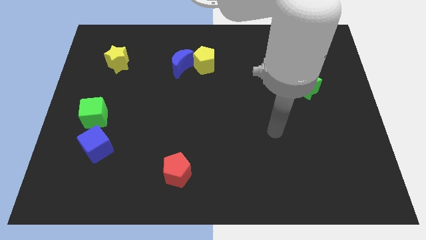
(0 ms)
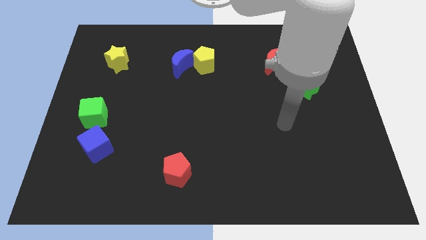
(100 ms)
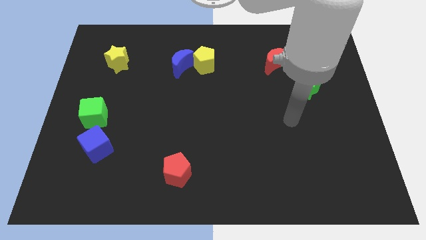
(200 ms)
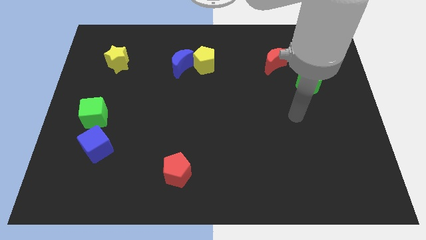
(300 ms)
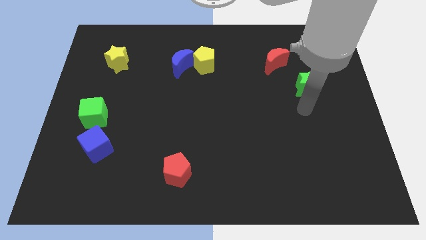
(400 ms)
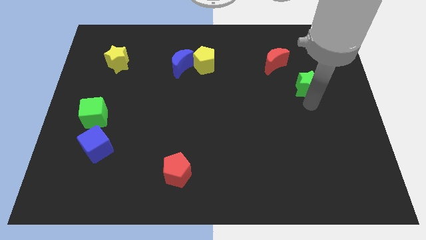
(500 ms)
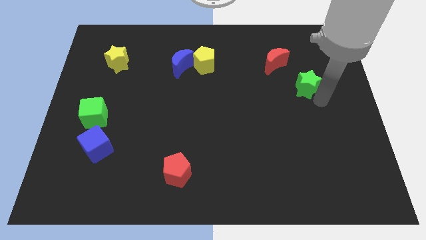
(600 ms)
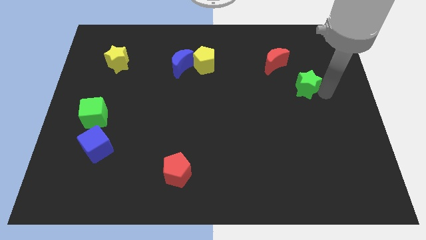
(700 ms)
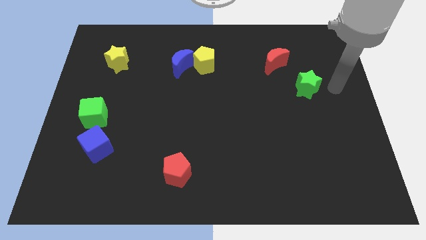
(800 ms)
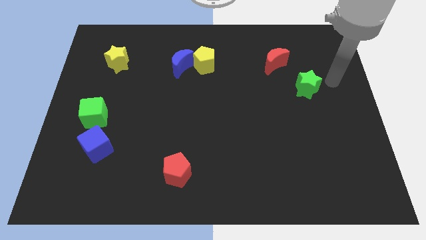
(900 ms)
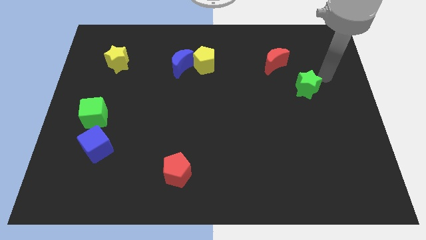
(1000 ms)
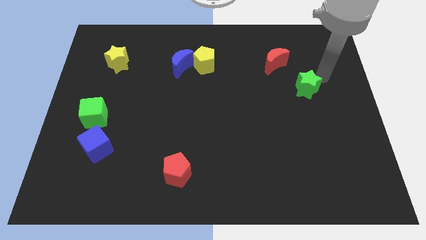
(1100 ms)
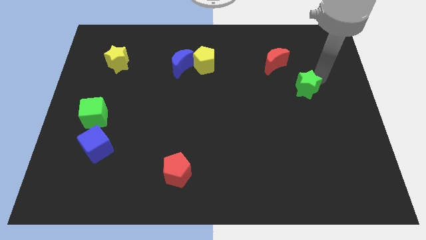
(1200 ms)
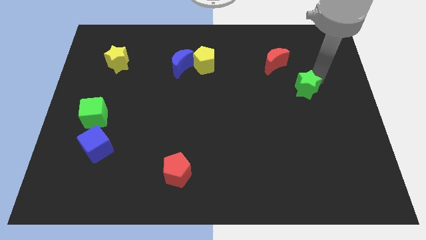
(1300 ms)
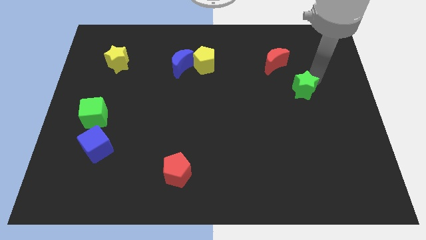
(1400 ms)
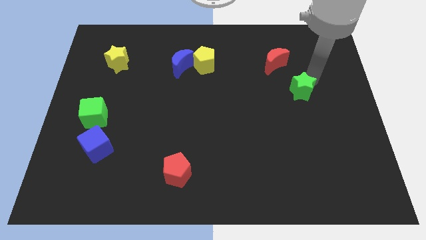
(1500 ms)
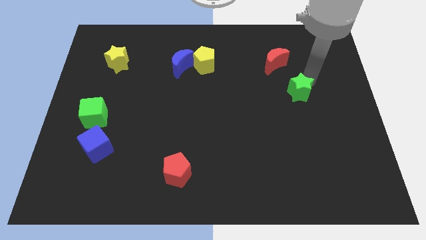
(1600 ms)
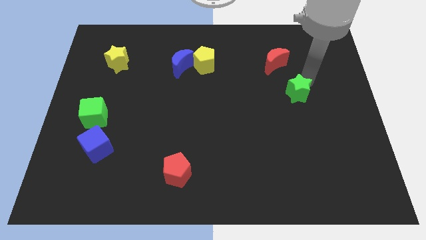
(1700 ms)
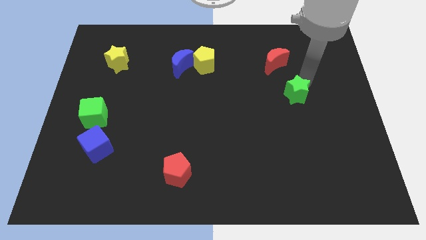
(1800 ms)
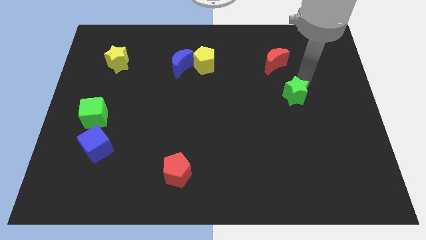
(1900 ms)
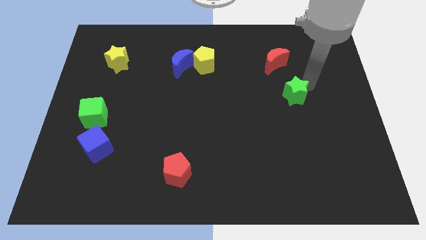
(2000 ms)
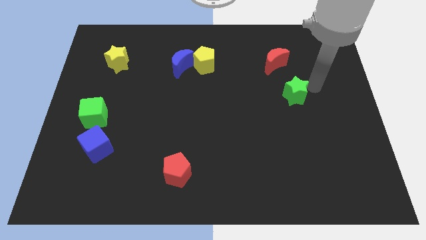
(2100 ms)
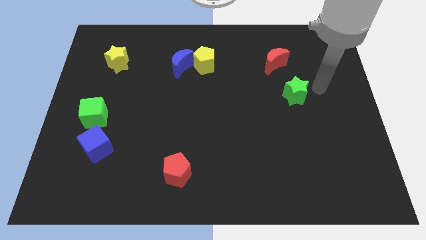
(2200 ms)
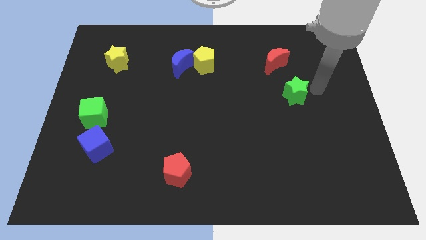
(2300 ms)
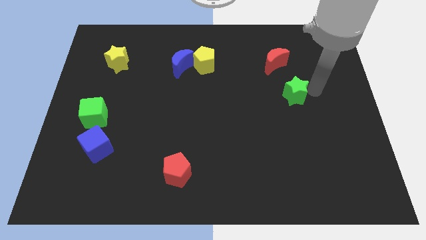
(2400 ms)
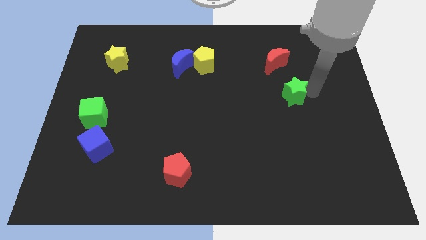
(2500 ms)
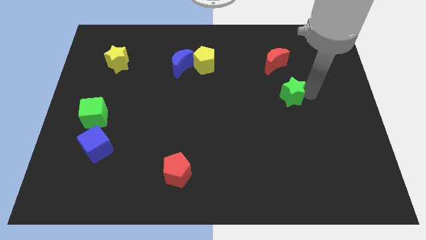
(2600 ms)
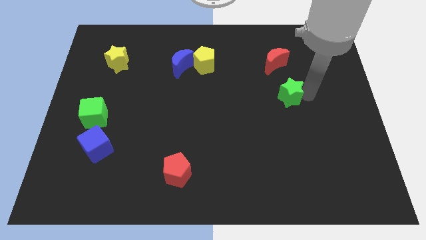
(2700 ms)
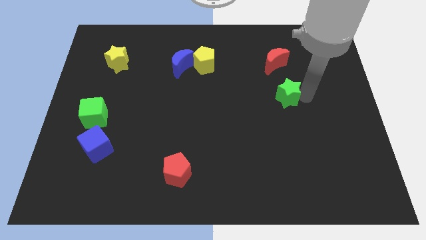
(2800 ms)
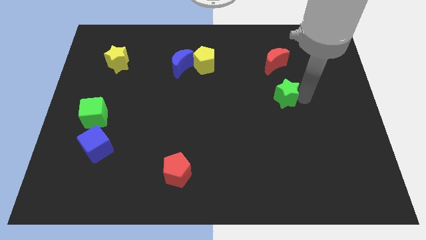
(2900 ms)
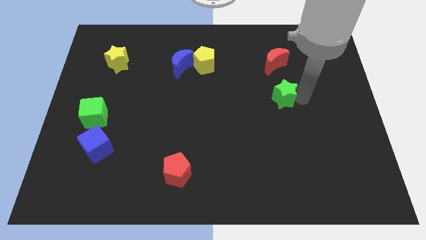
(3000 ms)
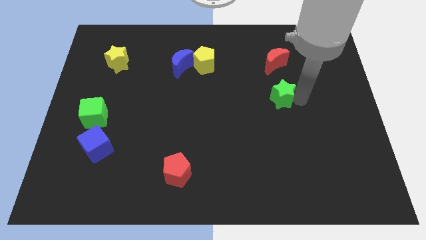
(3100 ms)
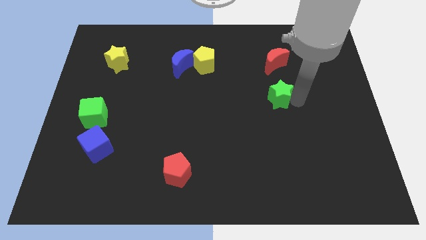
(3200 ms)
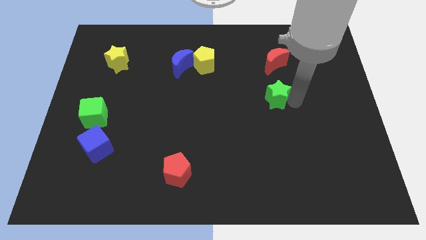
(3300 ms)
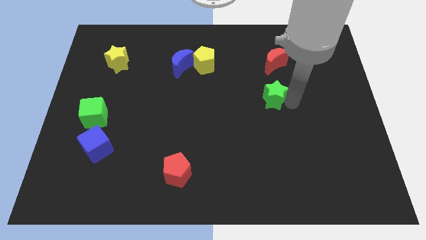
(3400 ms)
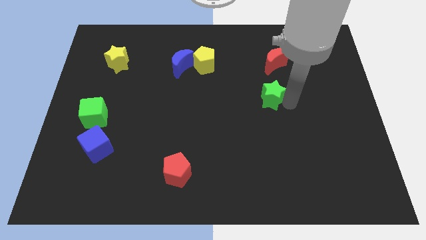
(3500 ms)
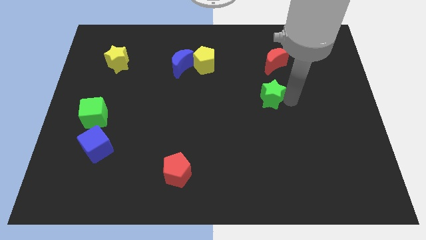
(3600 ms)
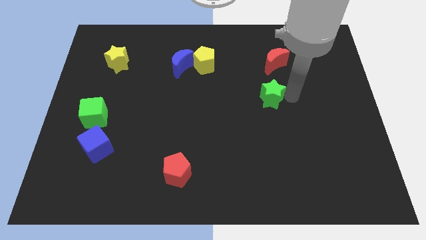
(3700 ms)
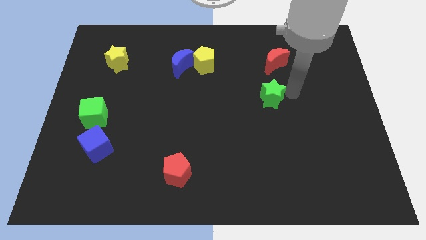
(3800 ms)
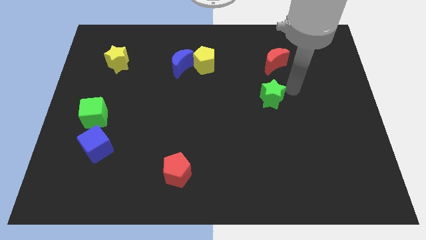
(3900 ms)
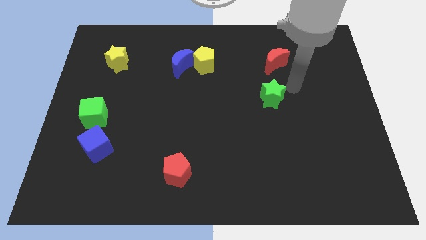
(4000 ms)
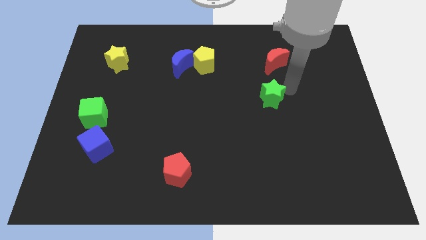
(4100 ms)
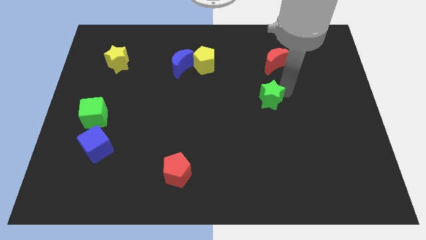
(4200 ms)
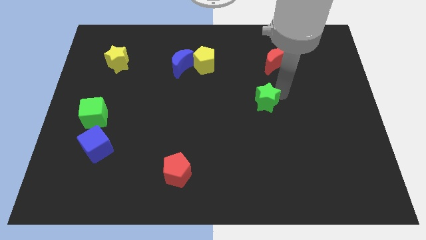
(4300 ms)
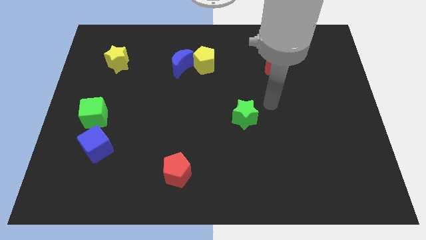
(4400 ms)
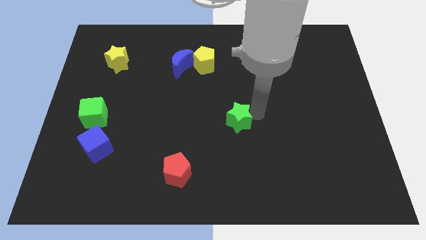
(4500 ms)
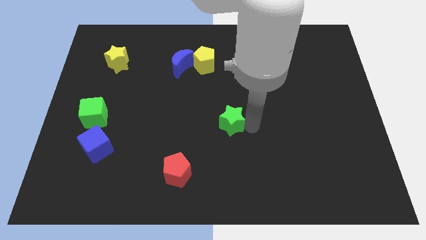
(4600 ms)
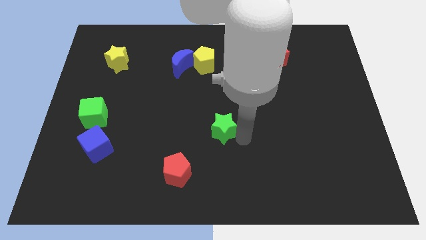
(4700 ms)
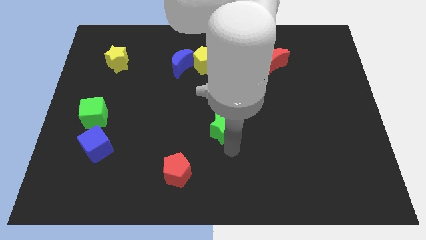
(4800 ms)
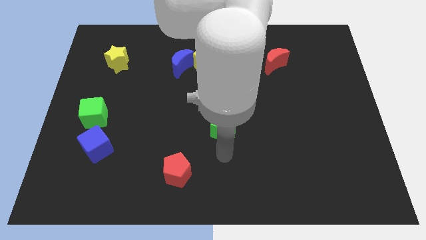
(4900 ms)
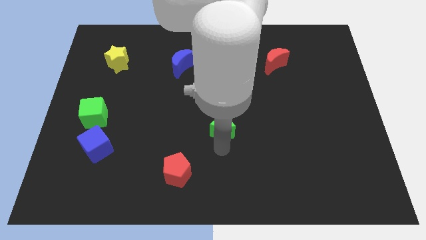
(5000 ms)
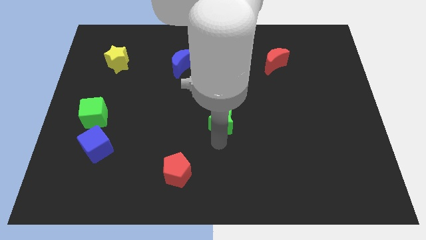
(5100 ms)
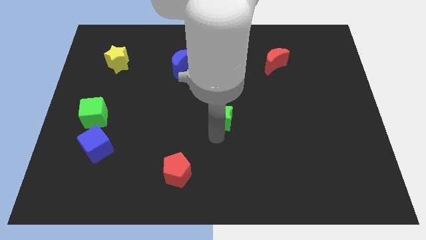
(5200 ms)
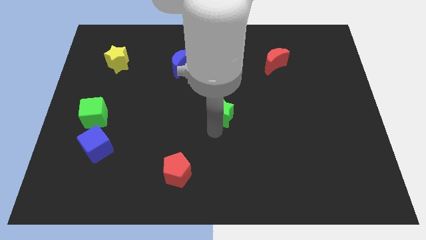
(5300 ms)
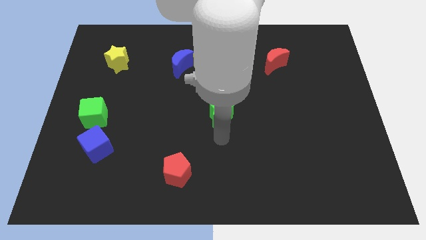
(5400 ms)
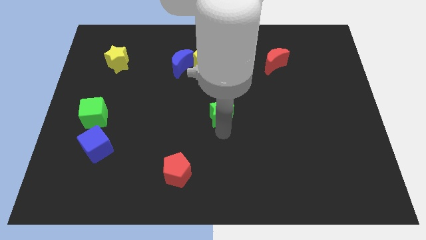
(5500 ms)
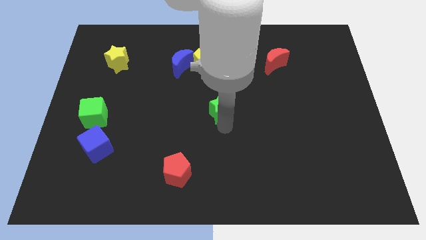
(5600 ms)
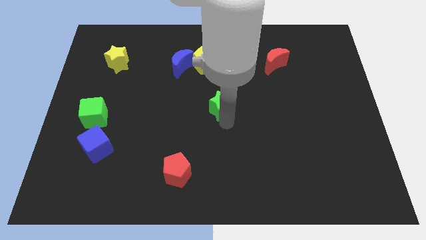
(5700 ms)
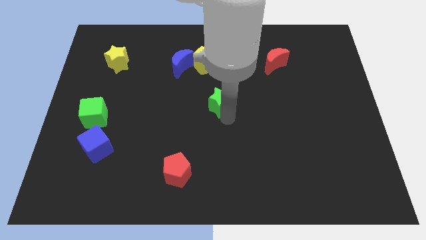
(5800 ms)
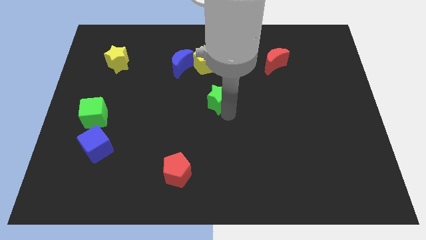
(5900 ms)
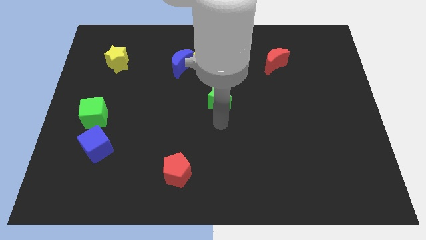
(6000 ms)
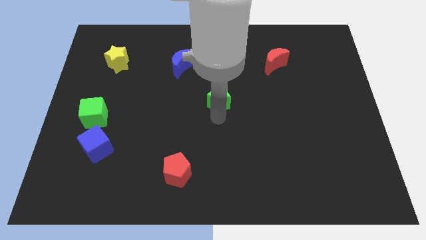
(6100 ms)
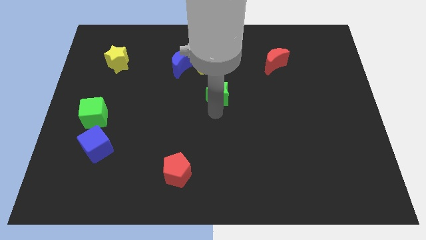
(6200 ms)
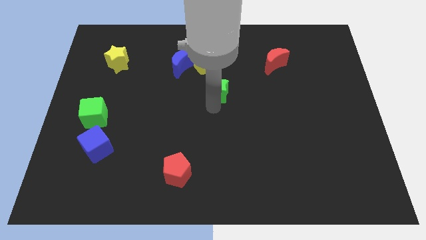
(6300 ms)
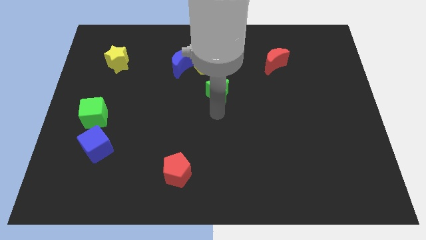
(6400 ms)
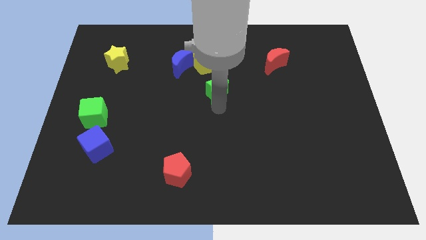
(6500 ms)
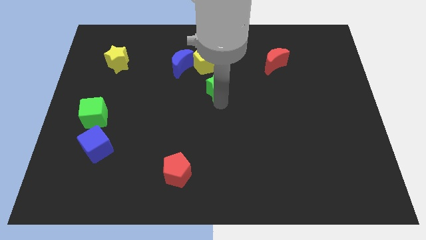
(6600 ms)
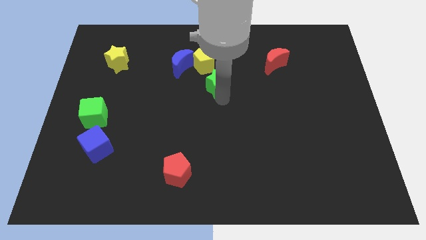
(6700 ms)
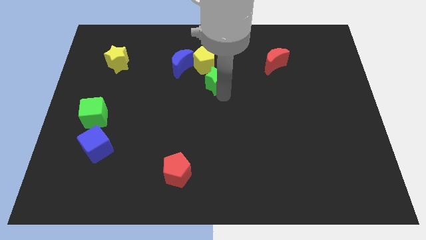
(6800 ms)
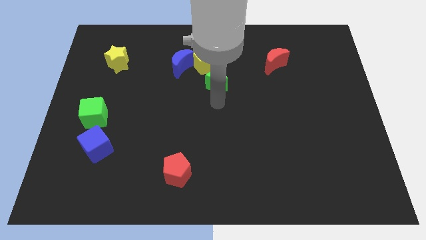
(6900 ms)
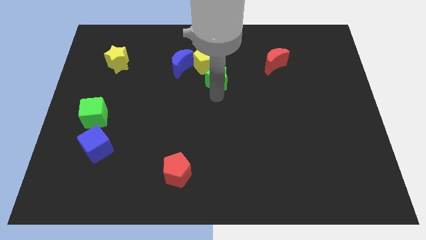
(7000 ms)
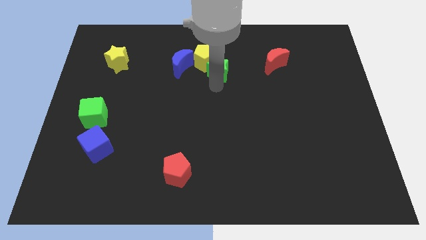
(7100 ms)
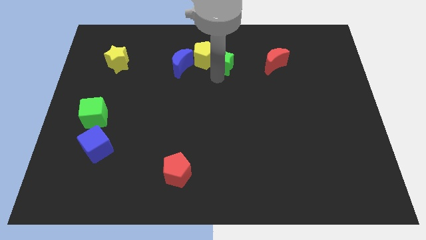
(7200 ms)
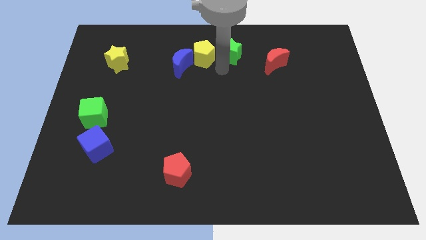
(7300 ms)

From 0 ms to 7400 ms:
push the green star to the top side
